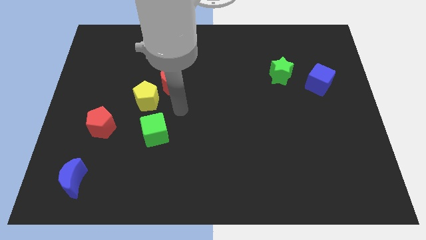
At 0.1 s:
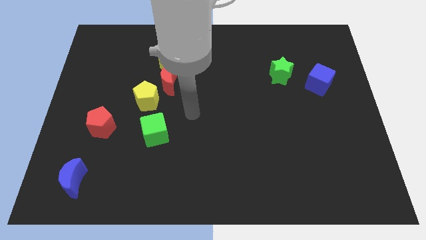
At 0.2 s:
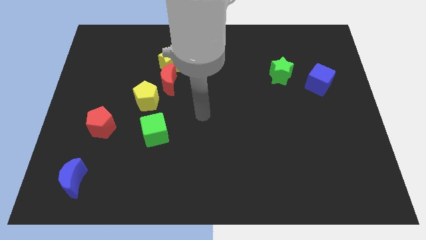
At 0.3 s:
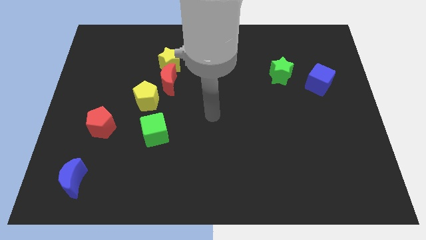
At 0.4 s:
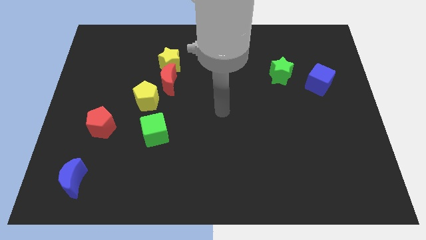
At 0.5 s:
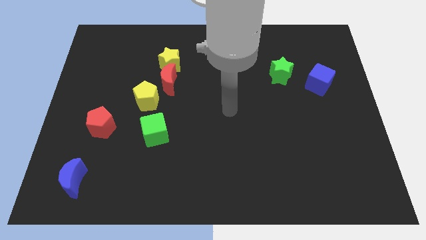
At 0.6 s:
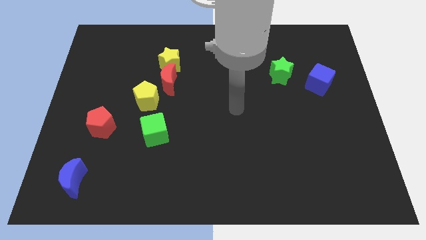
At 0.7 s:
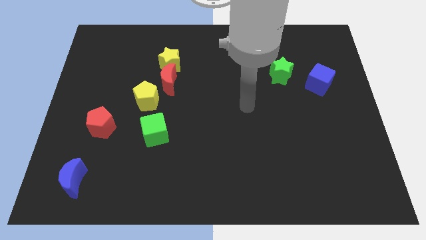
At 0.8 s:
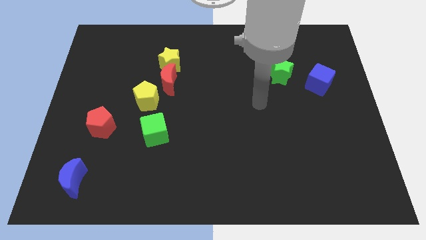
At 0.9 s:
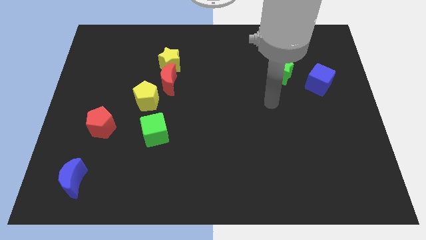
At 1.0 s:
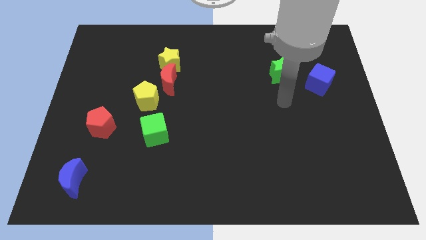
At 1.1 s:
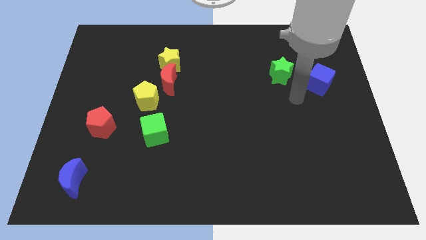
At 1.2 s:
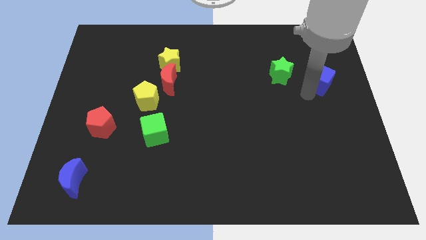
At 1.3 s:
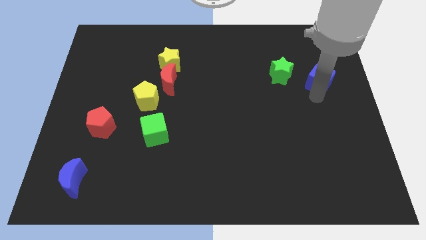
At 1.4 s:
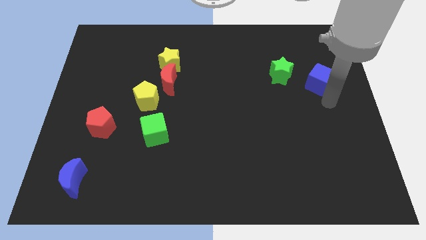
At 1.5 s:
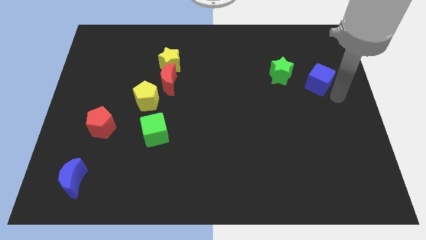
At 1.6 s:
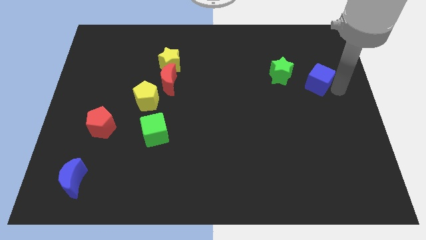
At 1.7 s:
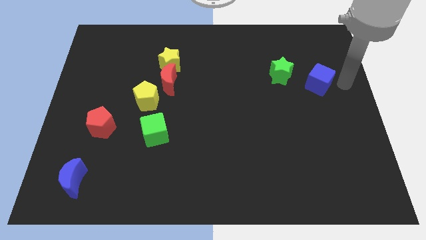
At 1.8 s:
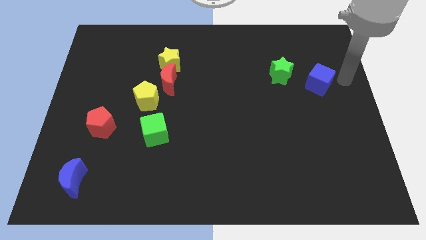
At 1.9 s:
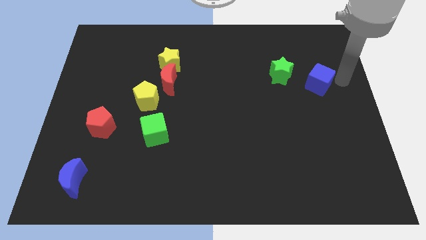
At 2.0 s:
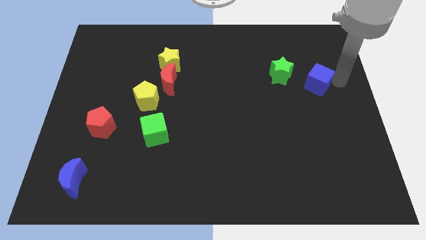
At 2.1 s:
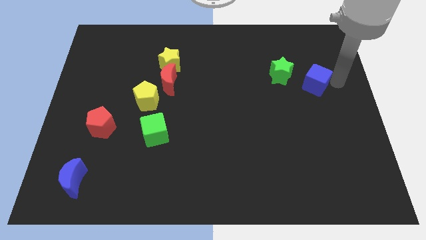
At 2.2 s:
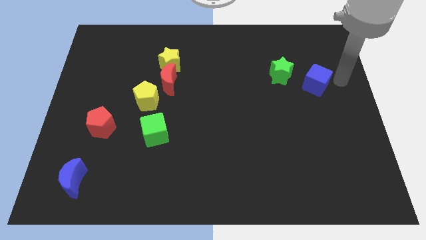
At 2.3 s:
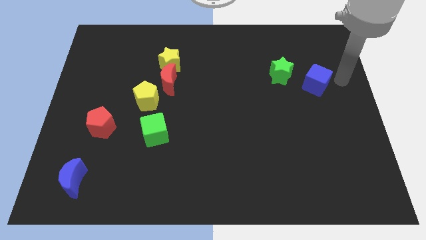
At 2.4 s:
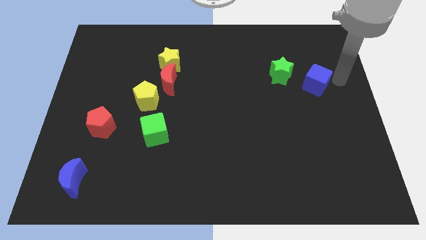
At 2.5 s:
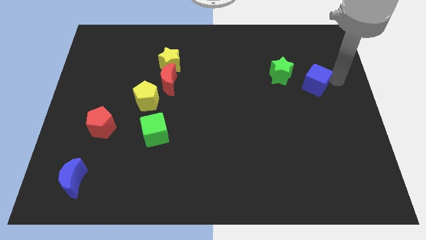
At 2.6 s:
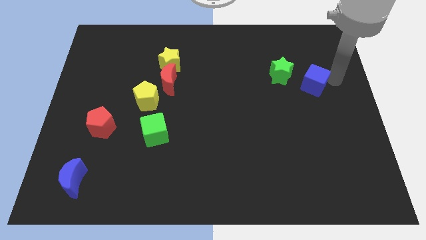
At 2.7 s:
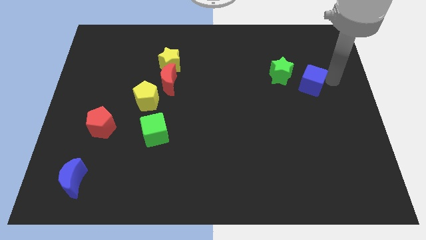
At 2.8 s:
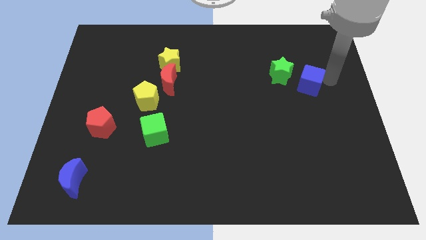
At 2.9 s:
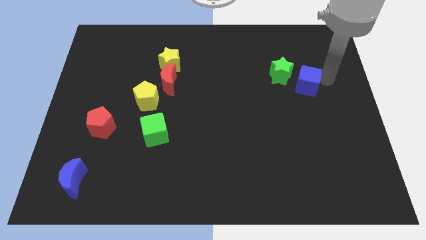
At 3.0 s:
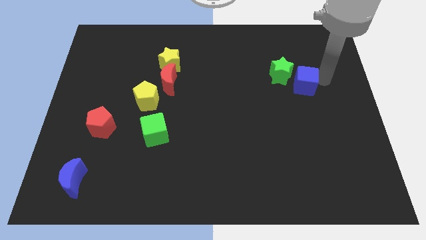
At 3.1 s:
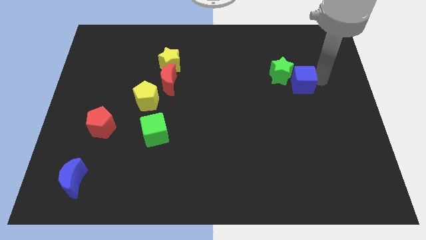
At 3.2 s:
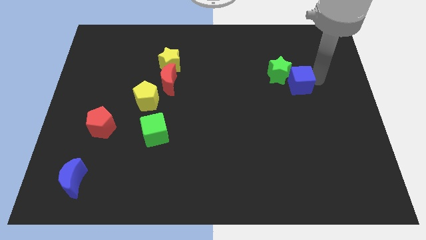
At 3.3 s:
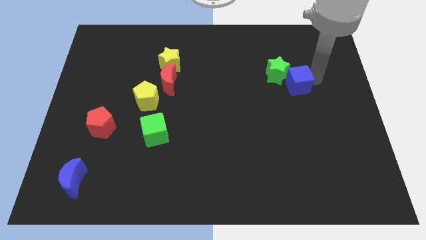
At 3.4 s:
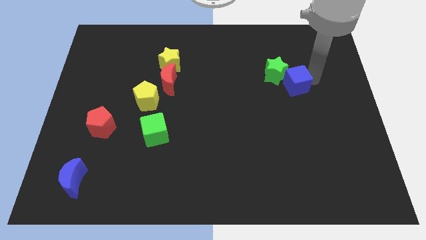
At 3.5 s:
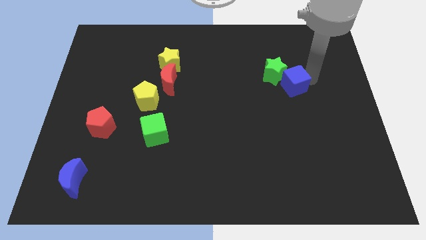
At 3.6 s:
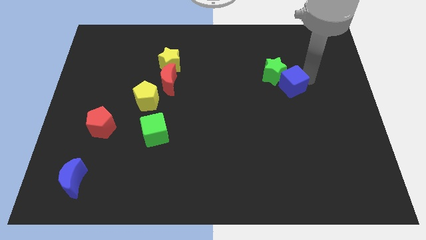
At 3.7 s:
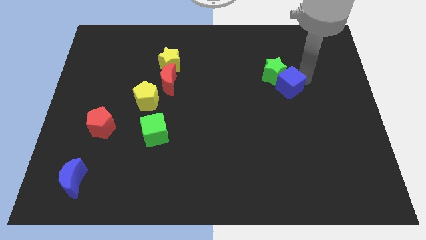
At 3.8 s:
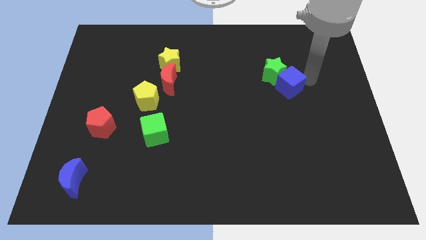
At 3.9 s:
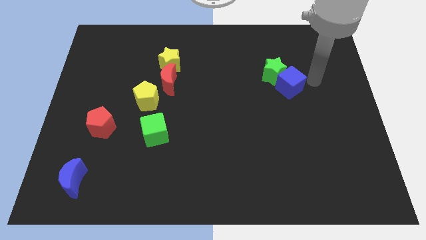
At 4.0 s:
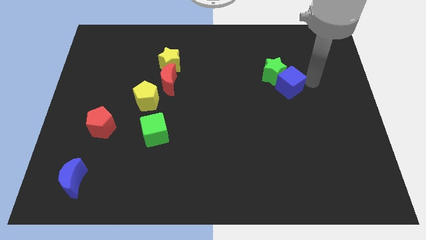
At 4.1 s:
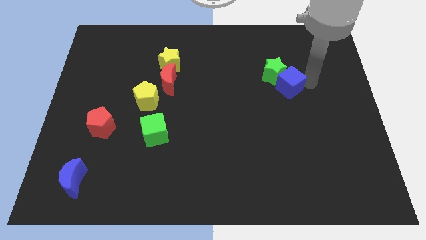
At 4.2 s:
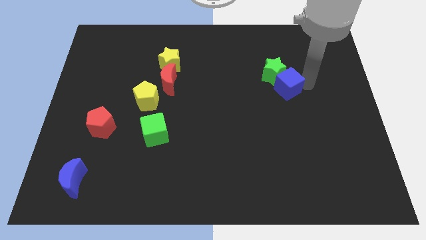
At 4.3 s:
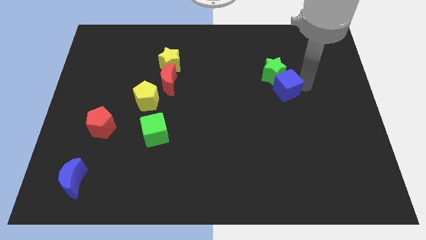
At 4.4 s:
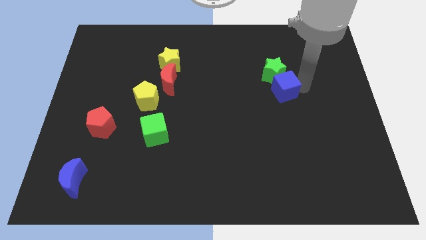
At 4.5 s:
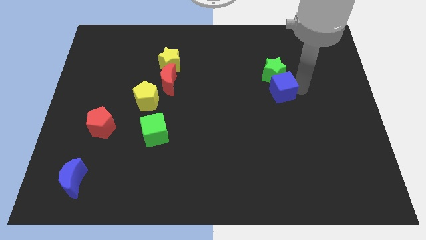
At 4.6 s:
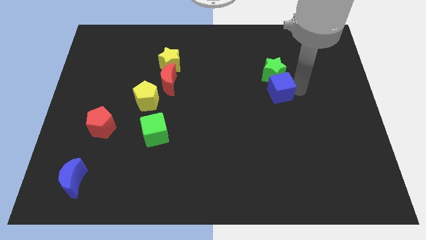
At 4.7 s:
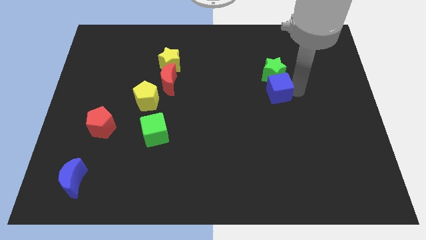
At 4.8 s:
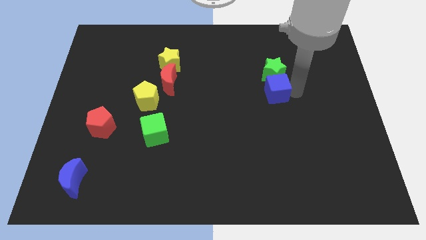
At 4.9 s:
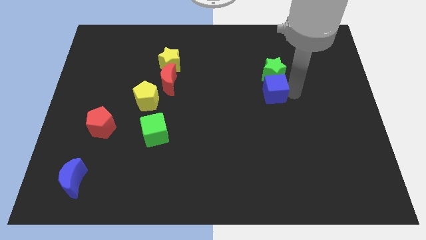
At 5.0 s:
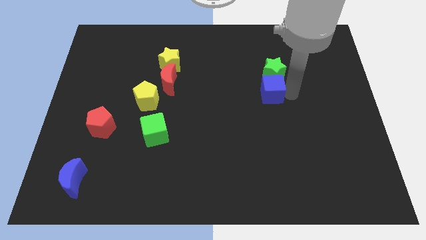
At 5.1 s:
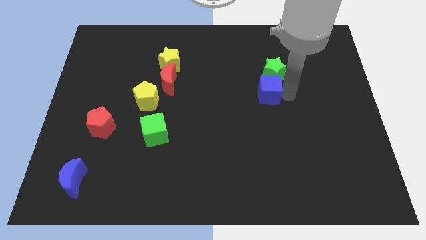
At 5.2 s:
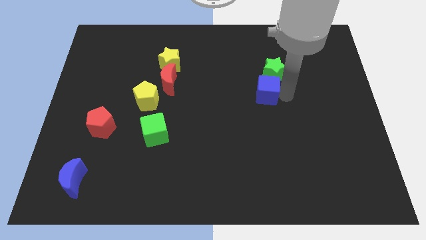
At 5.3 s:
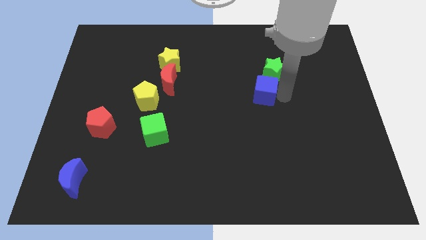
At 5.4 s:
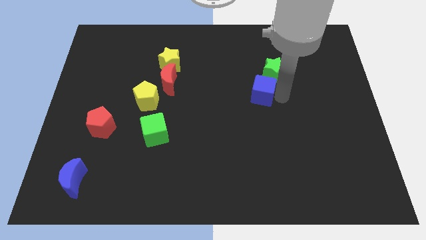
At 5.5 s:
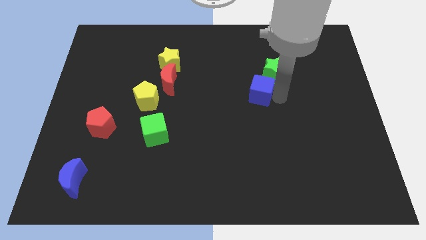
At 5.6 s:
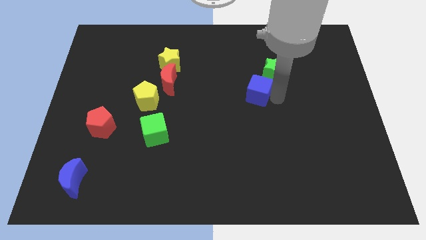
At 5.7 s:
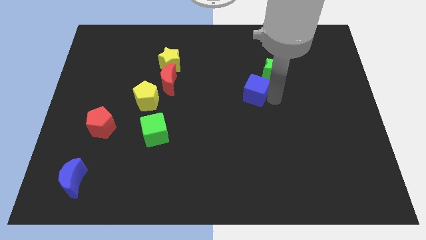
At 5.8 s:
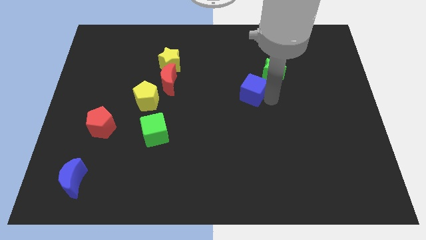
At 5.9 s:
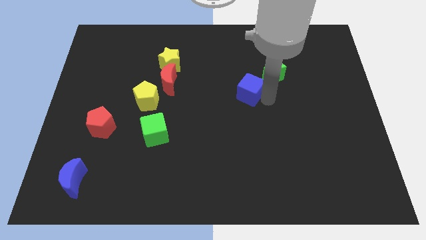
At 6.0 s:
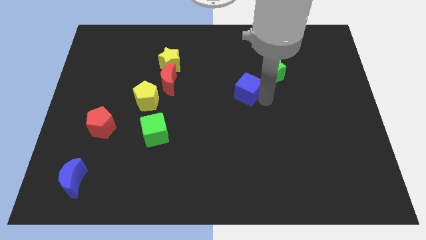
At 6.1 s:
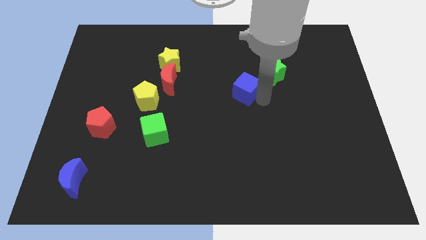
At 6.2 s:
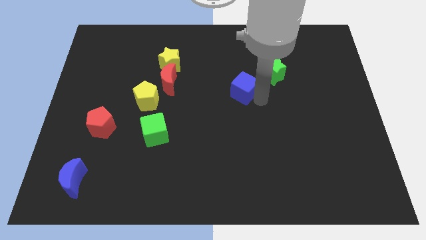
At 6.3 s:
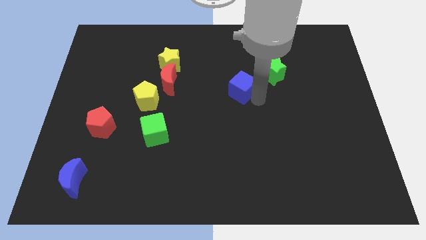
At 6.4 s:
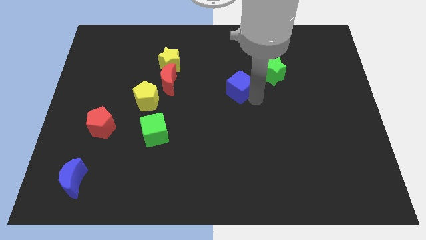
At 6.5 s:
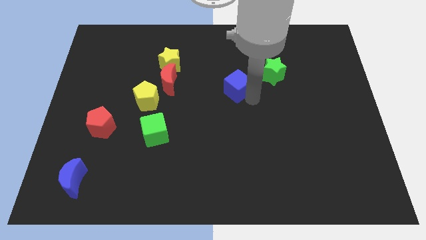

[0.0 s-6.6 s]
push the blue cube to the left

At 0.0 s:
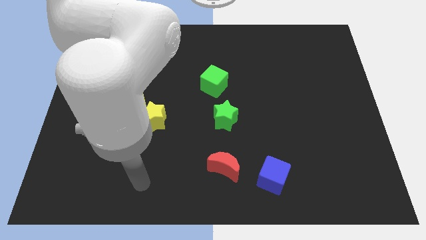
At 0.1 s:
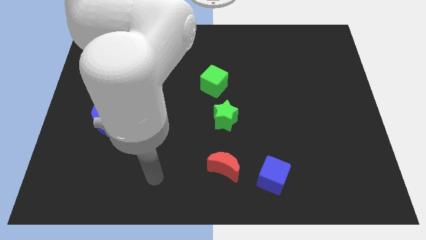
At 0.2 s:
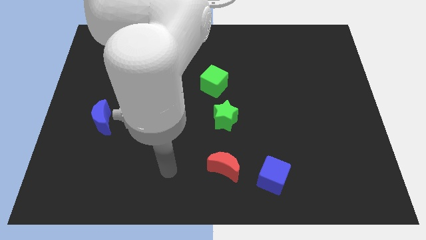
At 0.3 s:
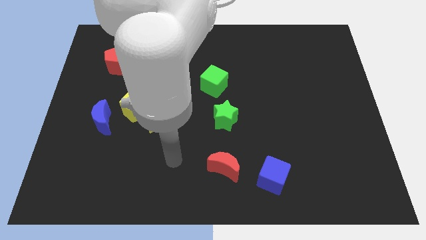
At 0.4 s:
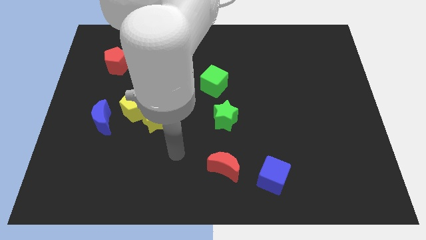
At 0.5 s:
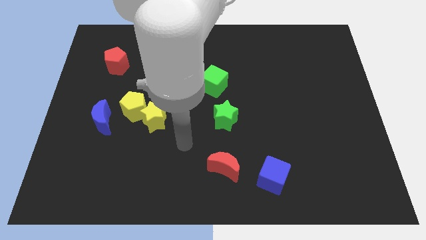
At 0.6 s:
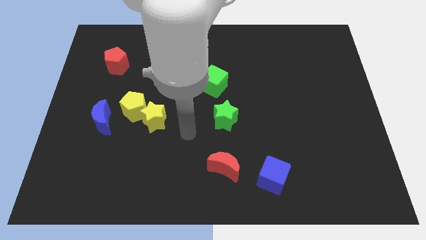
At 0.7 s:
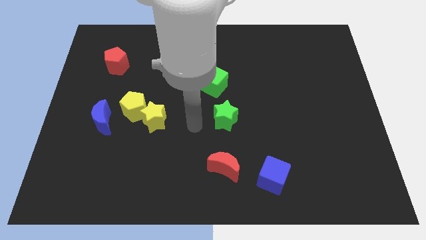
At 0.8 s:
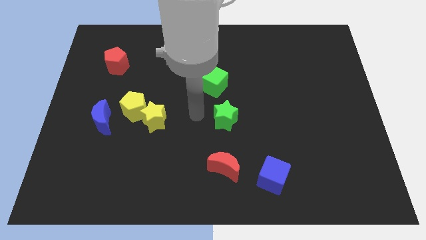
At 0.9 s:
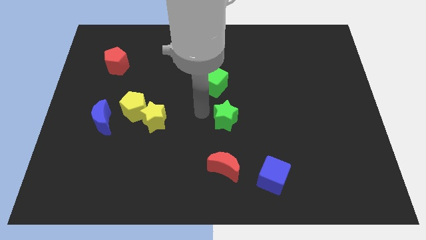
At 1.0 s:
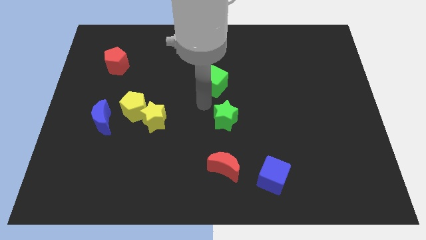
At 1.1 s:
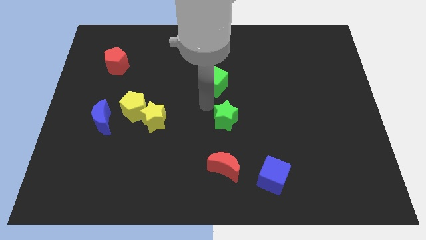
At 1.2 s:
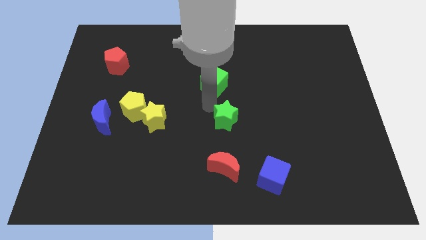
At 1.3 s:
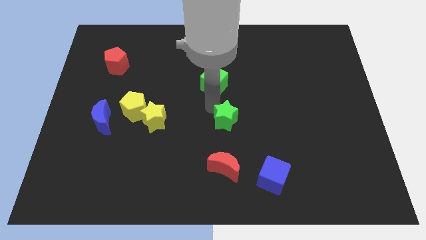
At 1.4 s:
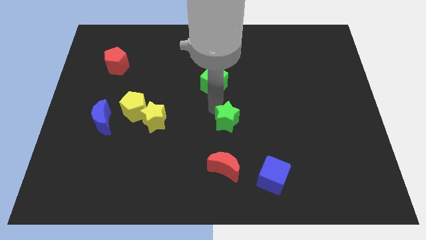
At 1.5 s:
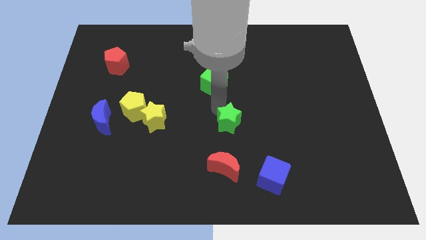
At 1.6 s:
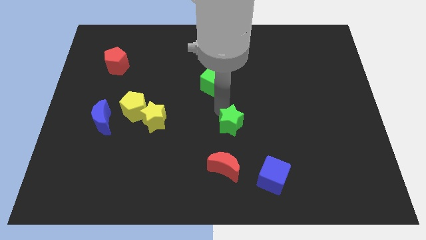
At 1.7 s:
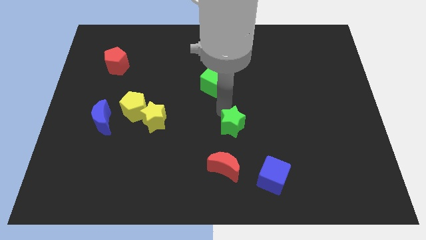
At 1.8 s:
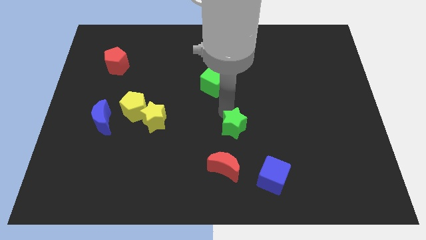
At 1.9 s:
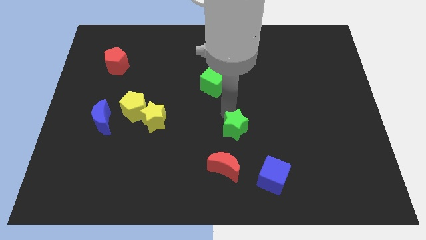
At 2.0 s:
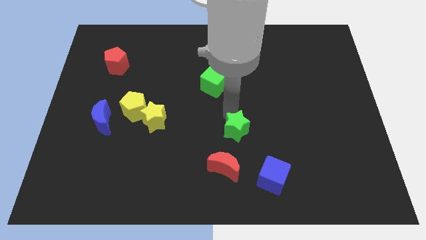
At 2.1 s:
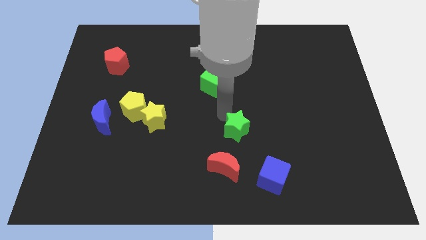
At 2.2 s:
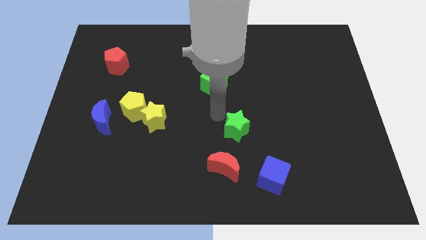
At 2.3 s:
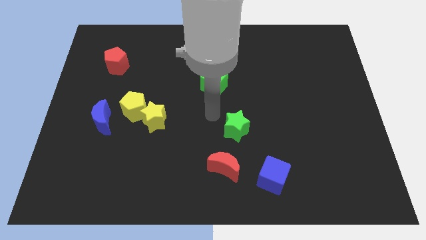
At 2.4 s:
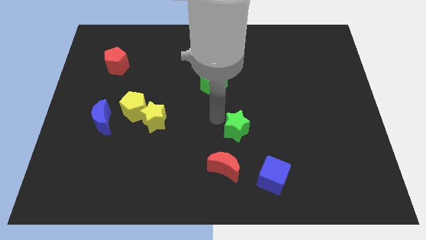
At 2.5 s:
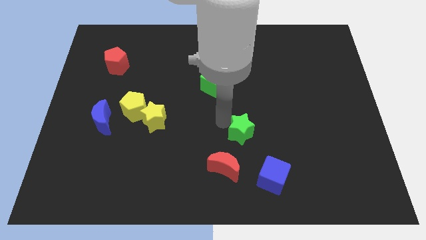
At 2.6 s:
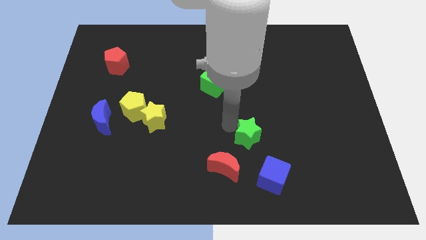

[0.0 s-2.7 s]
push the green star a little downwards and then to the right
